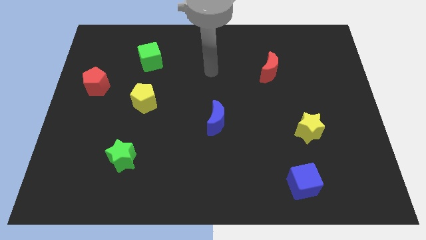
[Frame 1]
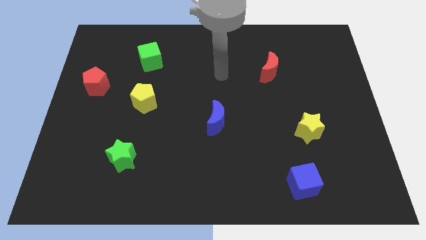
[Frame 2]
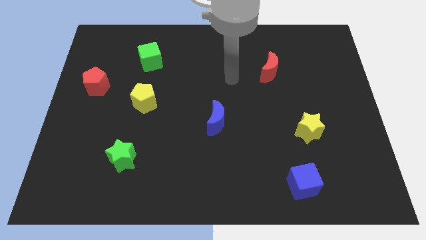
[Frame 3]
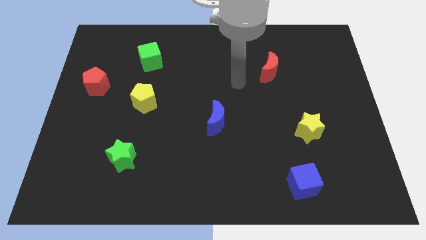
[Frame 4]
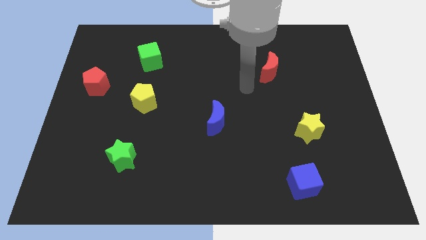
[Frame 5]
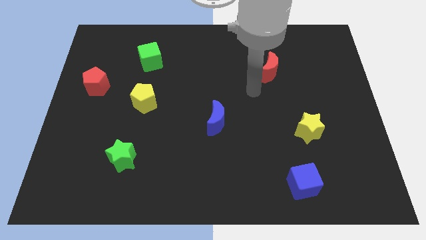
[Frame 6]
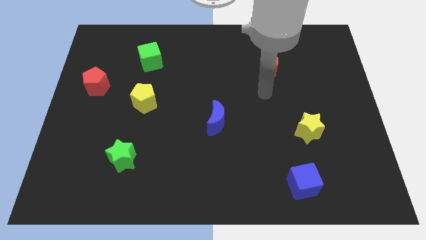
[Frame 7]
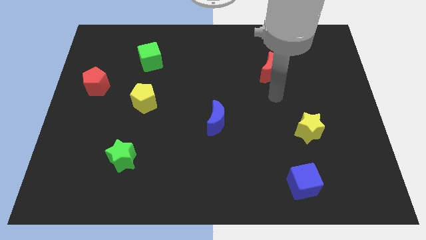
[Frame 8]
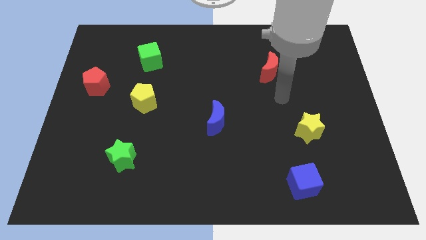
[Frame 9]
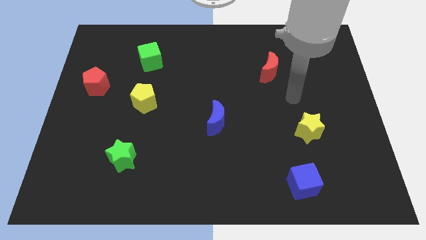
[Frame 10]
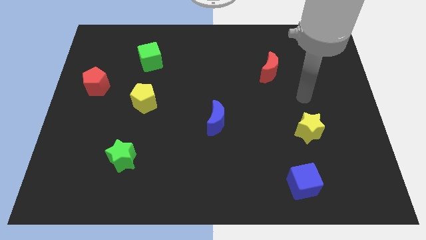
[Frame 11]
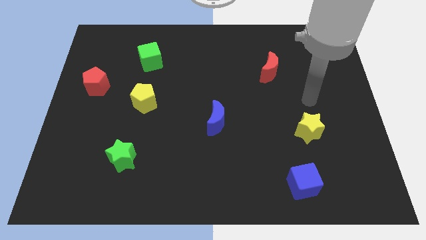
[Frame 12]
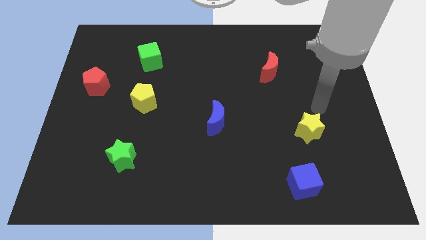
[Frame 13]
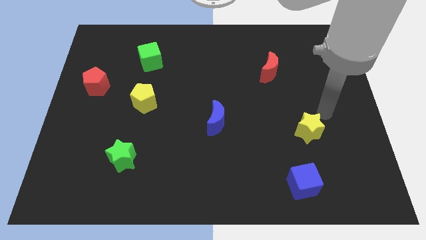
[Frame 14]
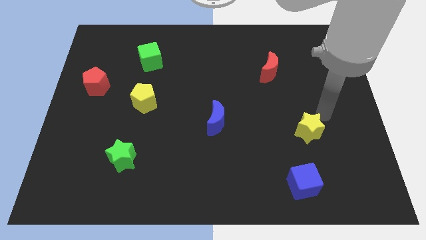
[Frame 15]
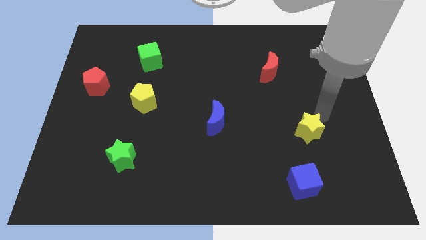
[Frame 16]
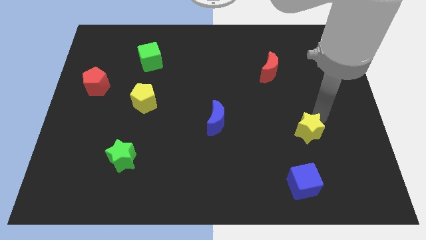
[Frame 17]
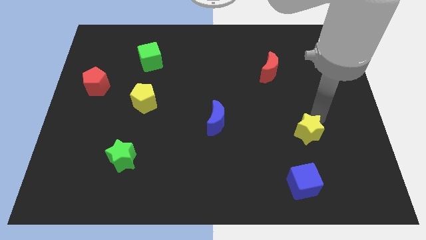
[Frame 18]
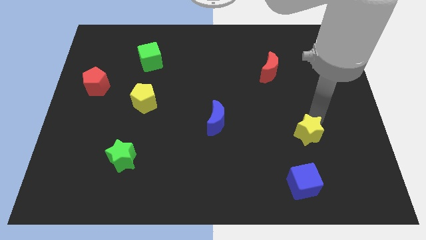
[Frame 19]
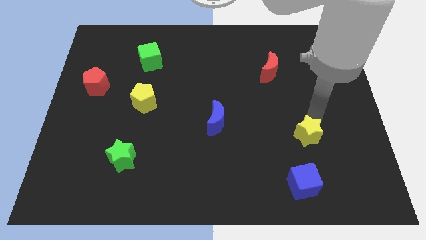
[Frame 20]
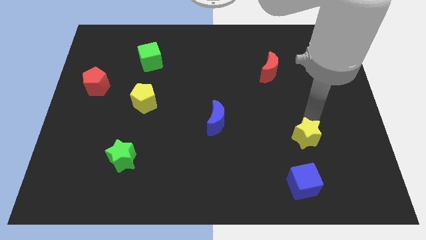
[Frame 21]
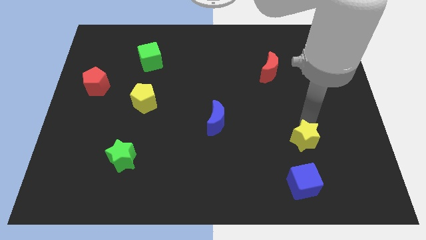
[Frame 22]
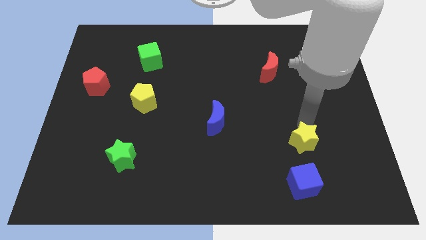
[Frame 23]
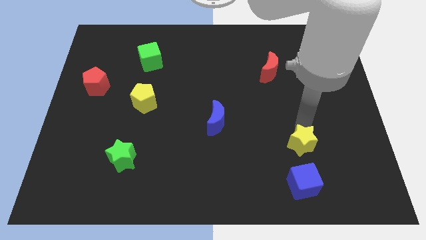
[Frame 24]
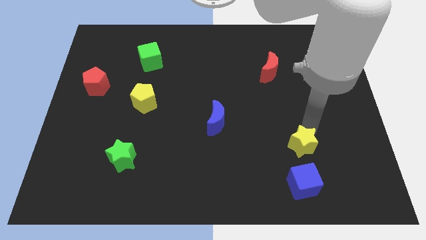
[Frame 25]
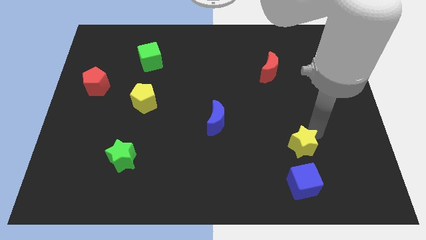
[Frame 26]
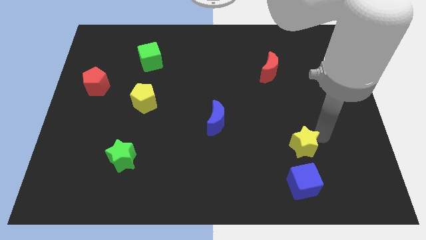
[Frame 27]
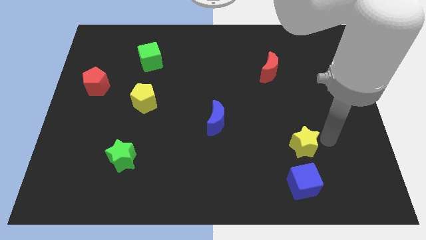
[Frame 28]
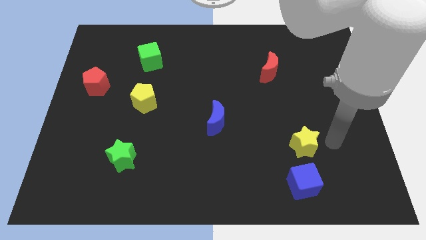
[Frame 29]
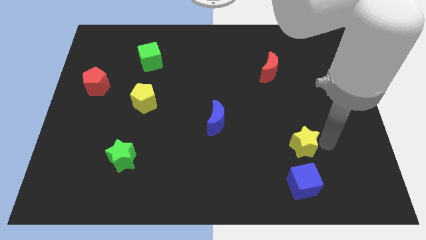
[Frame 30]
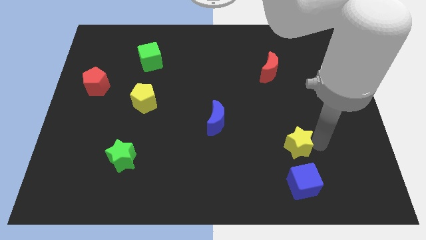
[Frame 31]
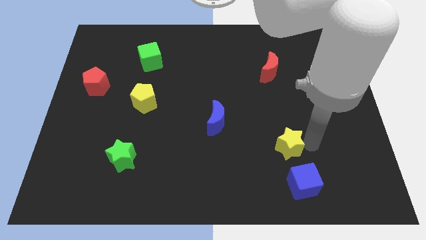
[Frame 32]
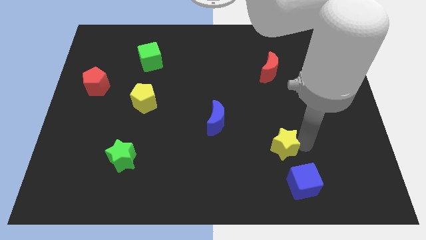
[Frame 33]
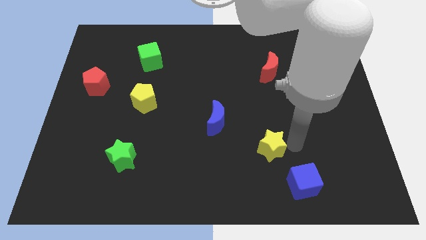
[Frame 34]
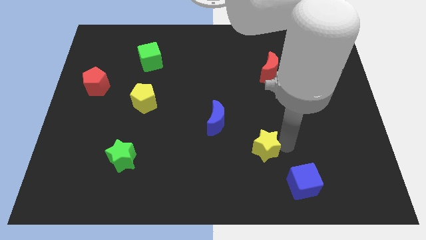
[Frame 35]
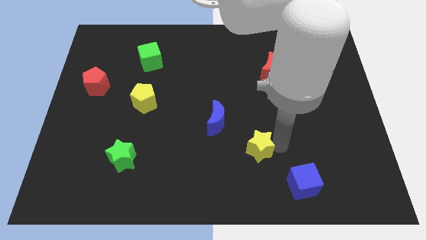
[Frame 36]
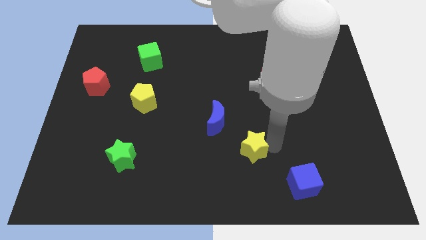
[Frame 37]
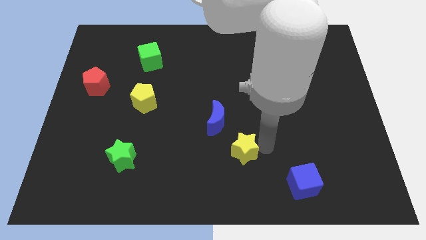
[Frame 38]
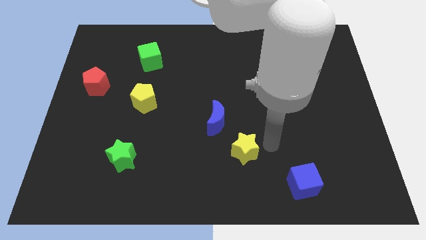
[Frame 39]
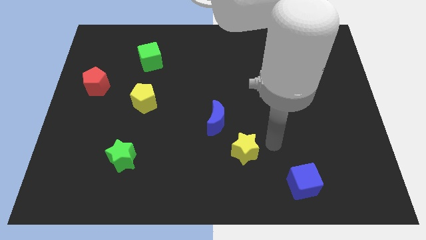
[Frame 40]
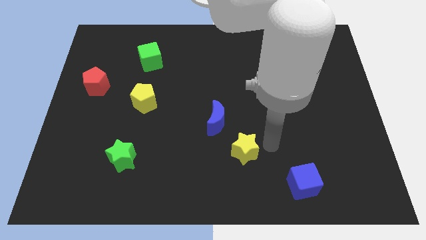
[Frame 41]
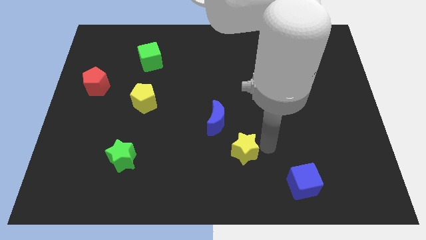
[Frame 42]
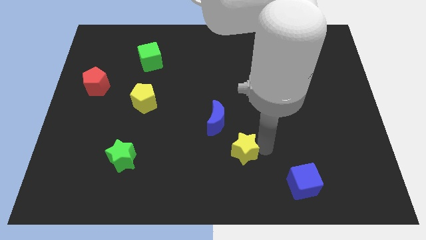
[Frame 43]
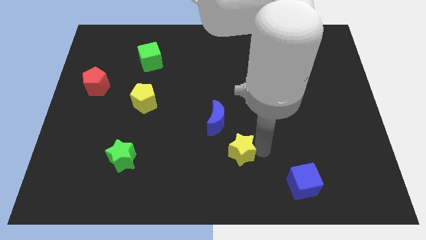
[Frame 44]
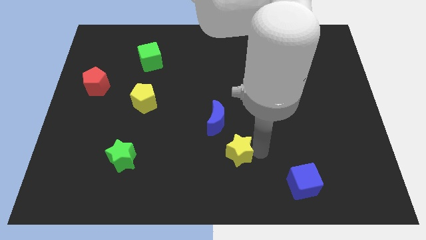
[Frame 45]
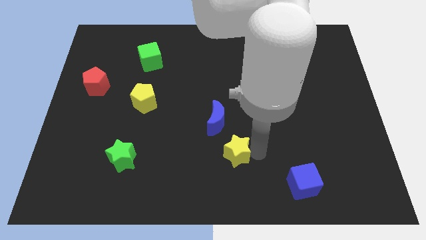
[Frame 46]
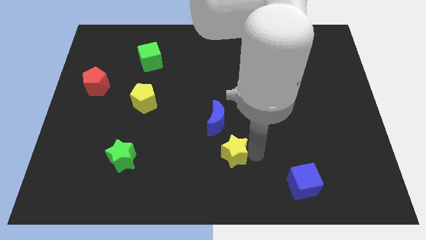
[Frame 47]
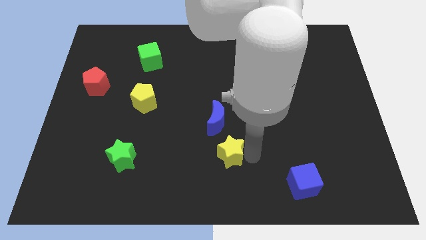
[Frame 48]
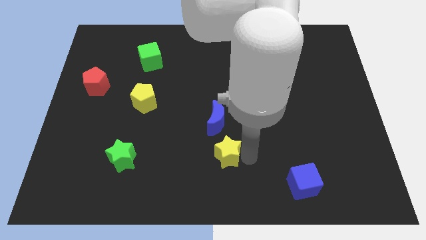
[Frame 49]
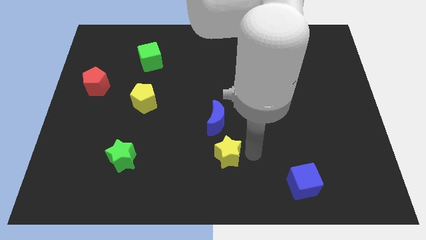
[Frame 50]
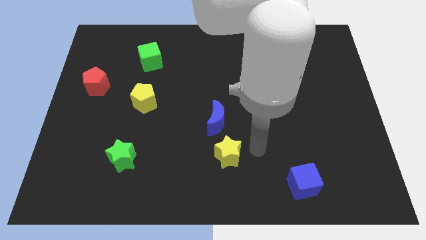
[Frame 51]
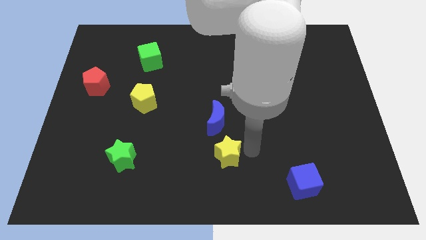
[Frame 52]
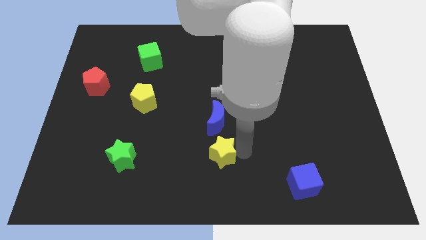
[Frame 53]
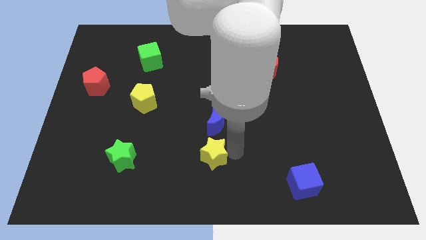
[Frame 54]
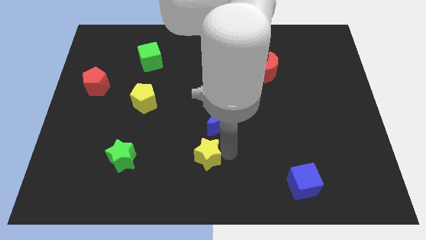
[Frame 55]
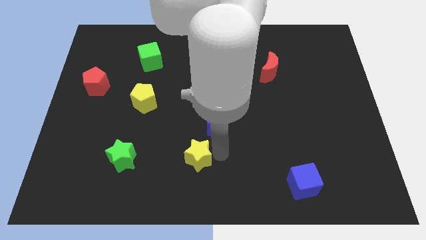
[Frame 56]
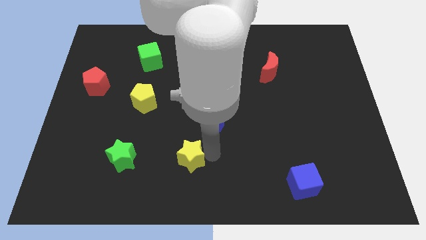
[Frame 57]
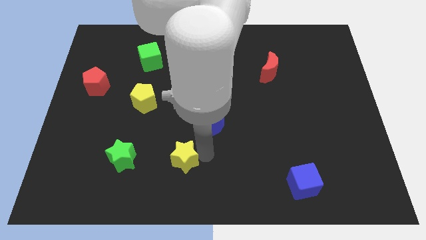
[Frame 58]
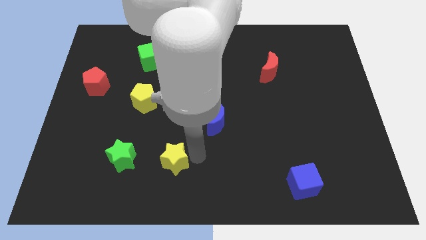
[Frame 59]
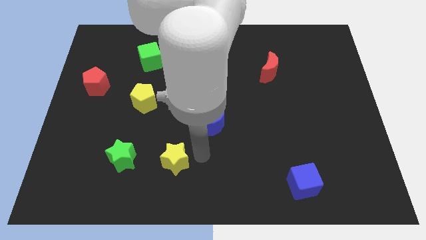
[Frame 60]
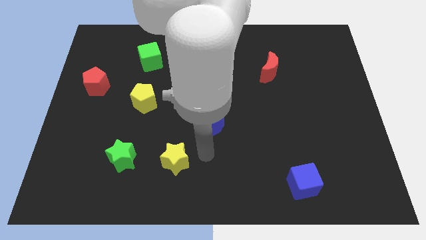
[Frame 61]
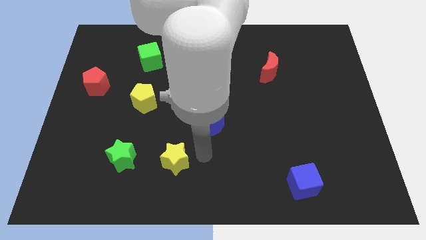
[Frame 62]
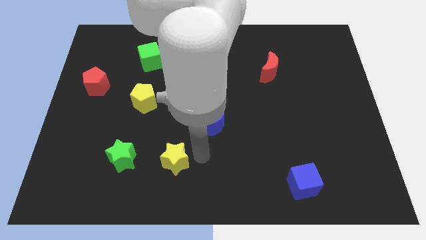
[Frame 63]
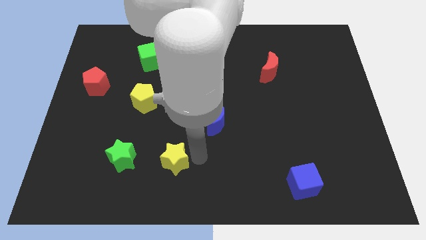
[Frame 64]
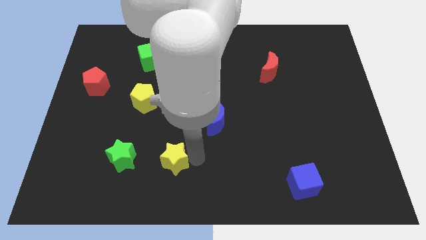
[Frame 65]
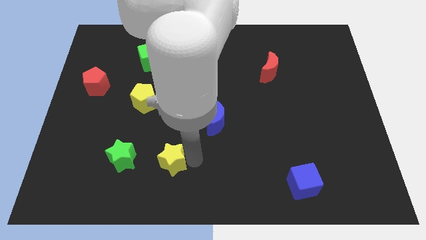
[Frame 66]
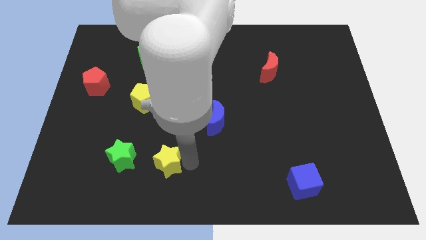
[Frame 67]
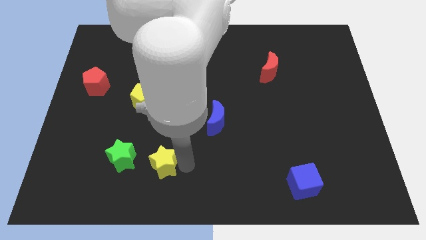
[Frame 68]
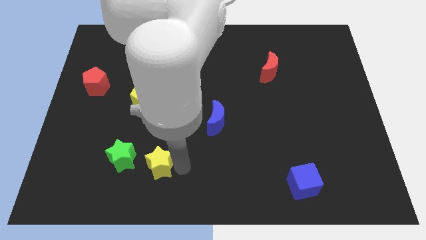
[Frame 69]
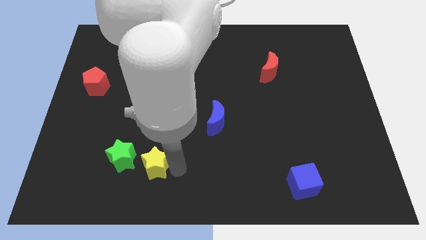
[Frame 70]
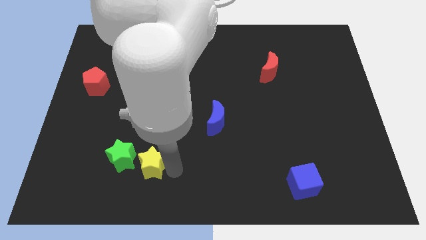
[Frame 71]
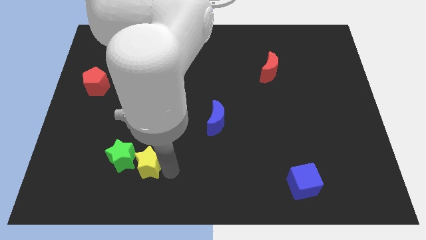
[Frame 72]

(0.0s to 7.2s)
move the yellow star close to the green star
